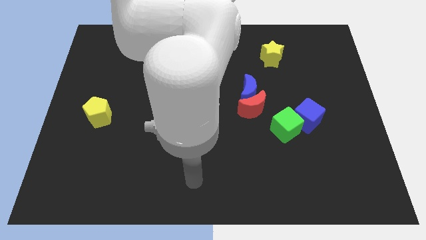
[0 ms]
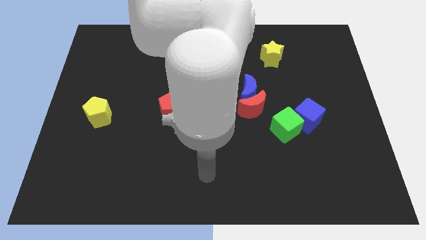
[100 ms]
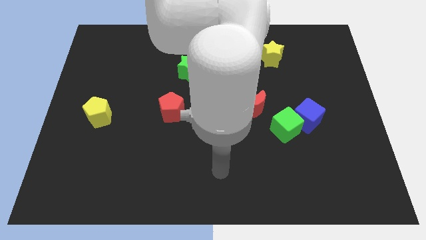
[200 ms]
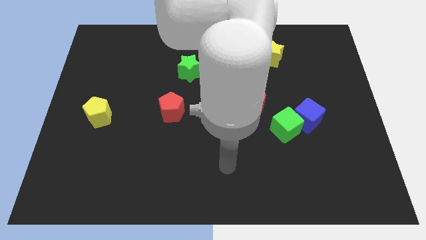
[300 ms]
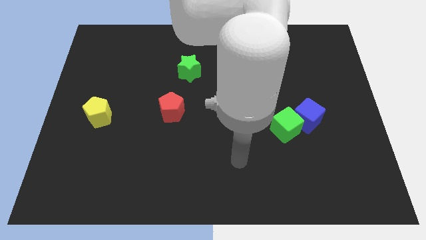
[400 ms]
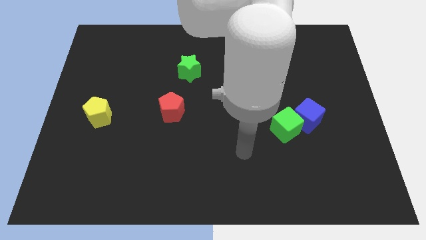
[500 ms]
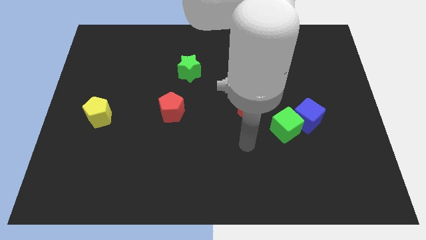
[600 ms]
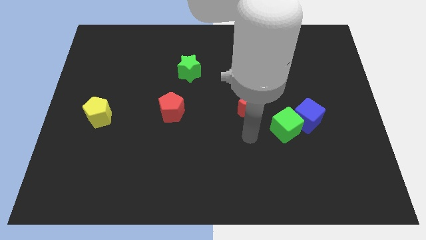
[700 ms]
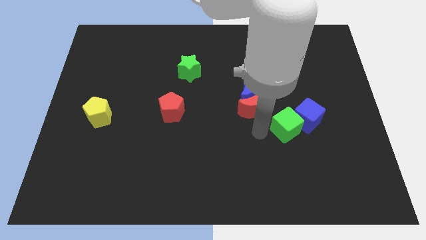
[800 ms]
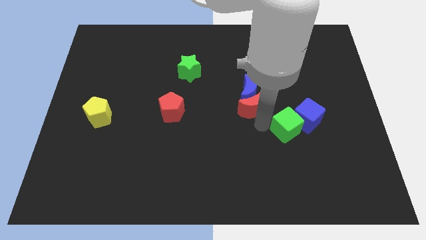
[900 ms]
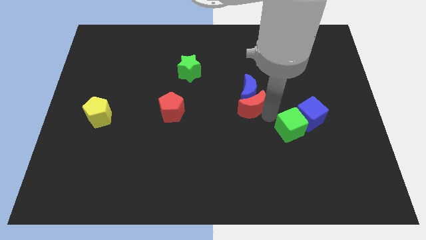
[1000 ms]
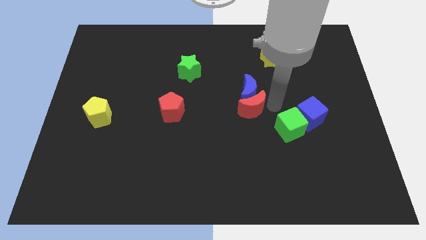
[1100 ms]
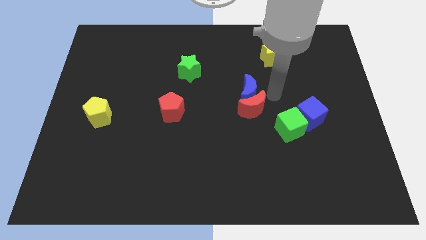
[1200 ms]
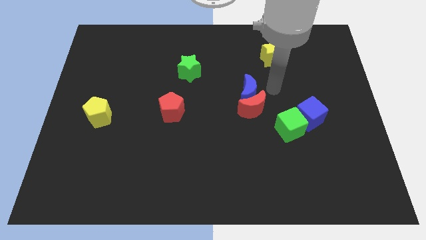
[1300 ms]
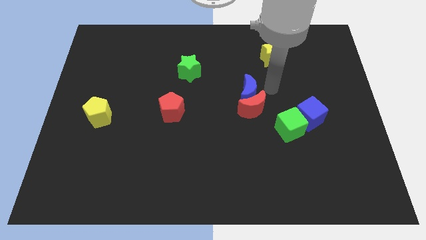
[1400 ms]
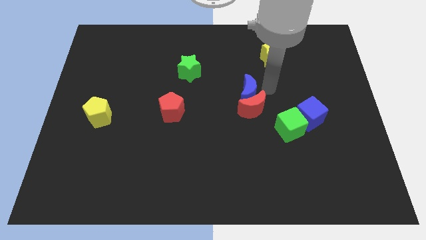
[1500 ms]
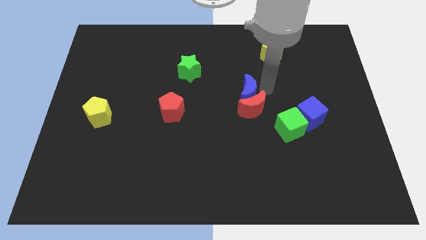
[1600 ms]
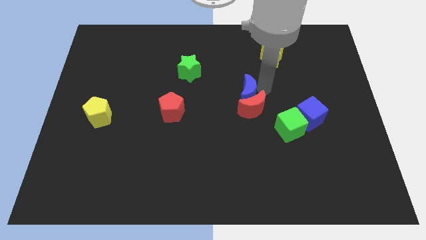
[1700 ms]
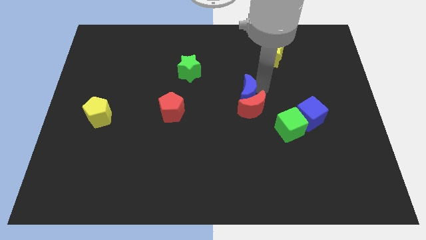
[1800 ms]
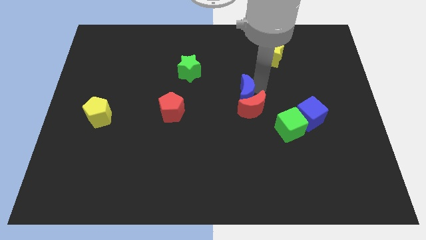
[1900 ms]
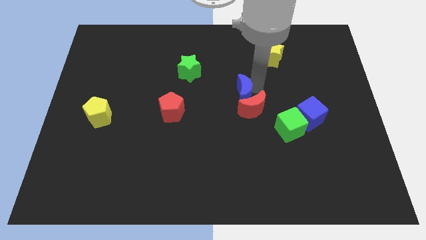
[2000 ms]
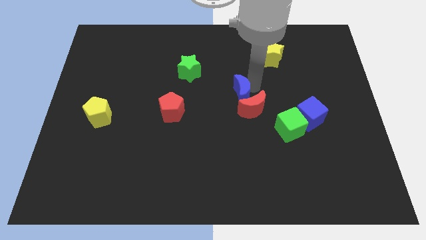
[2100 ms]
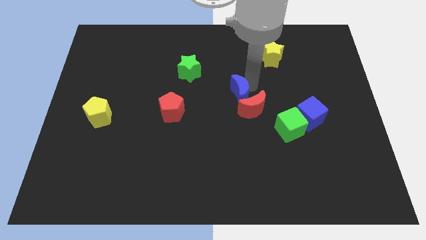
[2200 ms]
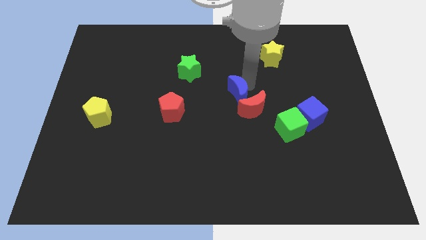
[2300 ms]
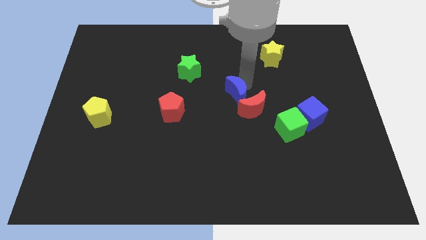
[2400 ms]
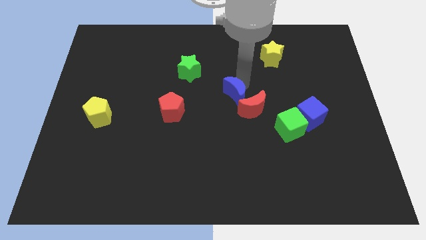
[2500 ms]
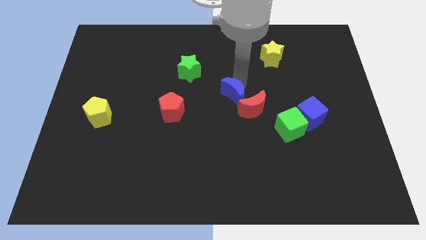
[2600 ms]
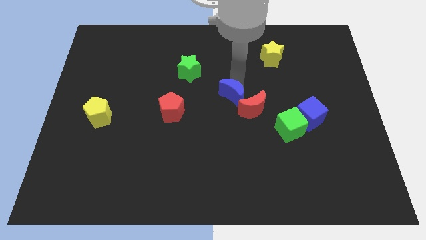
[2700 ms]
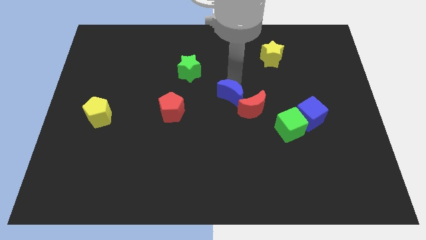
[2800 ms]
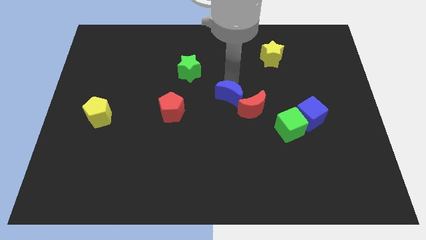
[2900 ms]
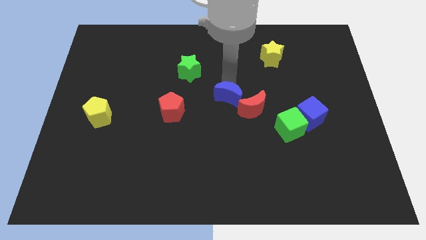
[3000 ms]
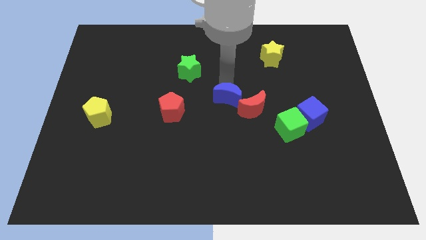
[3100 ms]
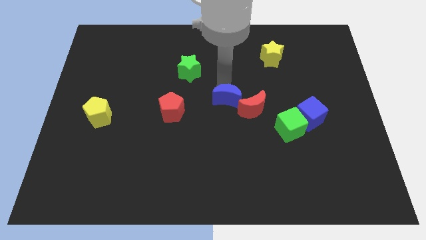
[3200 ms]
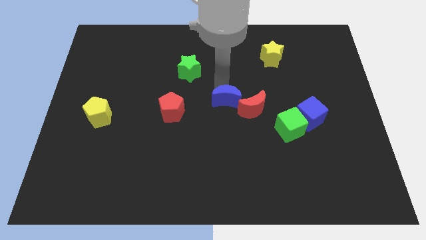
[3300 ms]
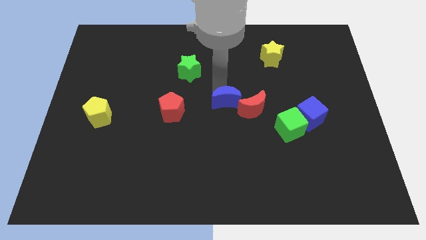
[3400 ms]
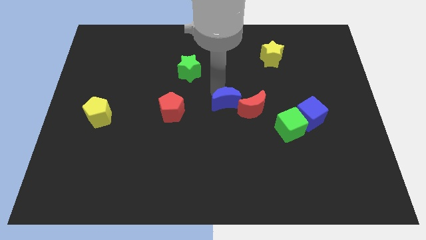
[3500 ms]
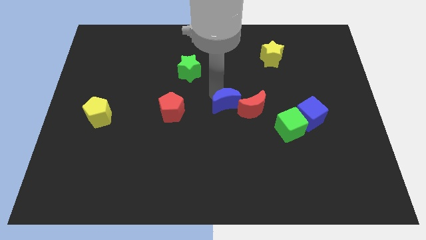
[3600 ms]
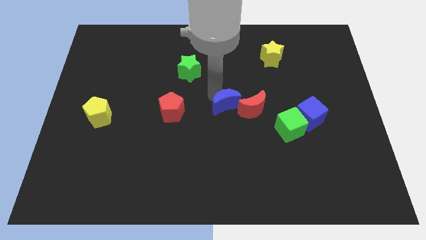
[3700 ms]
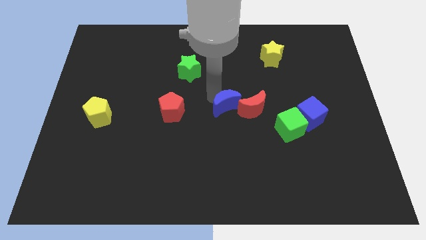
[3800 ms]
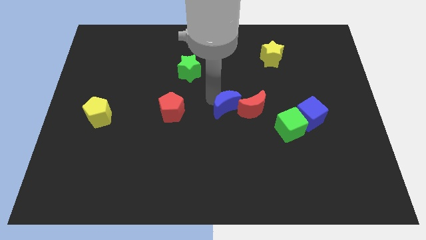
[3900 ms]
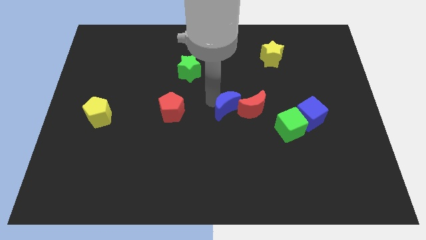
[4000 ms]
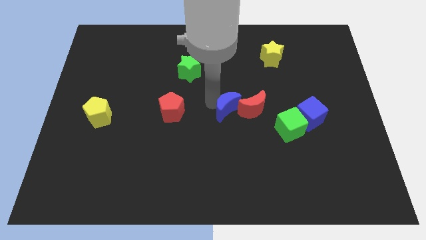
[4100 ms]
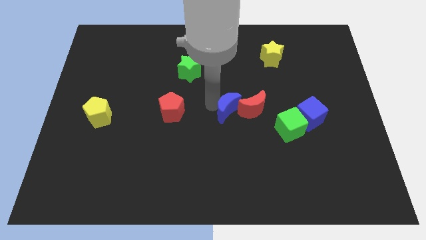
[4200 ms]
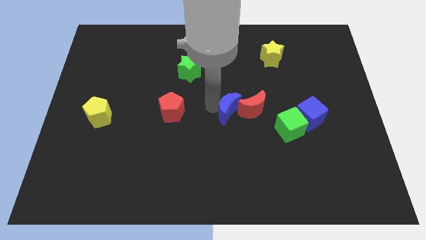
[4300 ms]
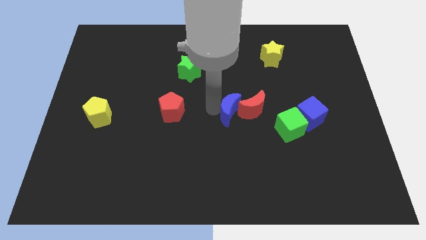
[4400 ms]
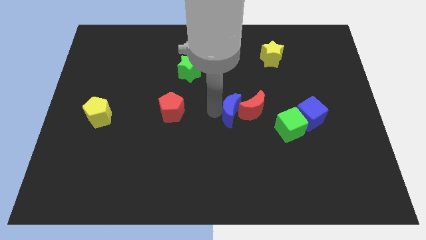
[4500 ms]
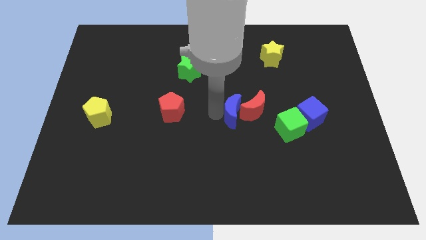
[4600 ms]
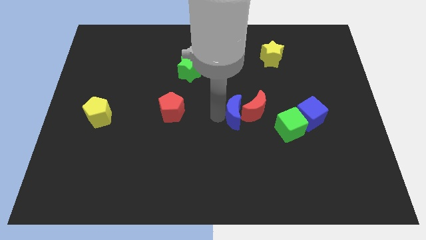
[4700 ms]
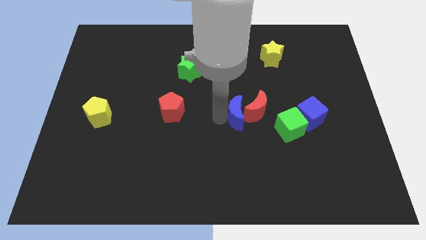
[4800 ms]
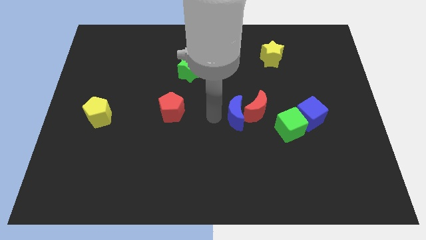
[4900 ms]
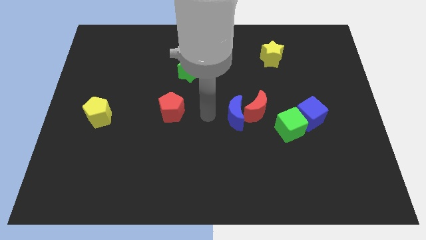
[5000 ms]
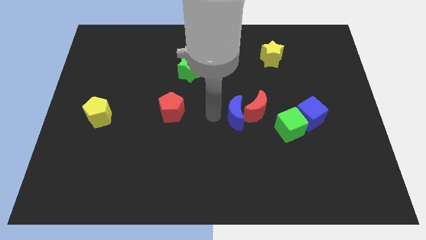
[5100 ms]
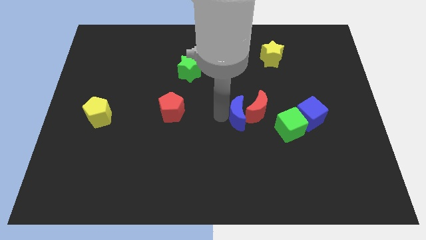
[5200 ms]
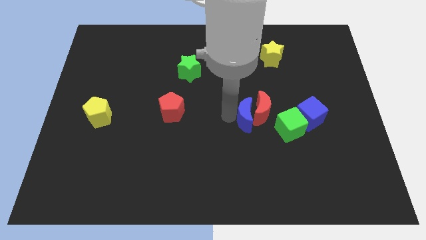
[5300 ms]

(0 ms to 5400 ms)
slide the blue moon just left of the blue cube

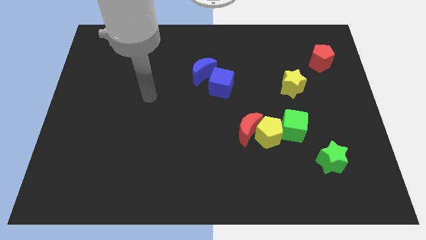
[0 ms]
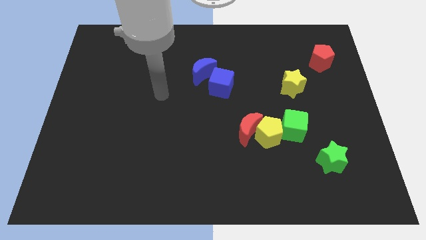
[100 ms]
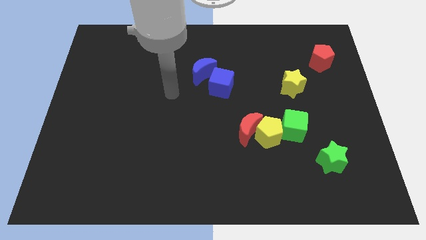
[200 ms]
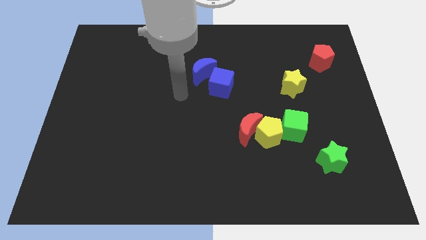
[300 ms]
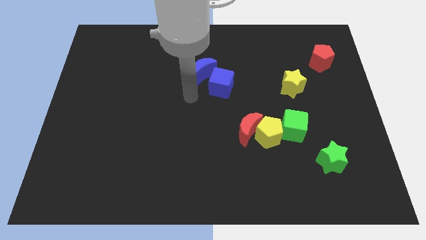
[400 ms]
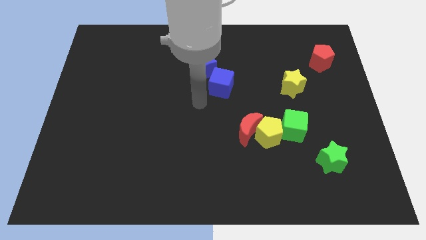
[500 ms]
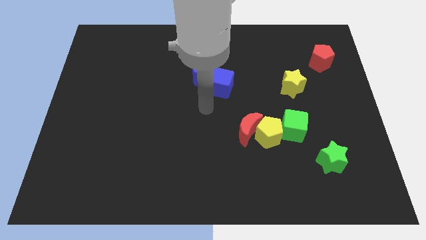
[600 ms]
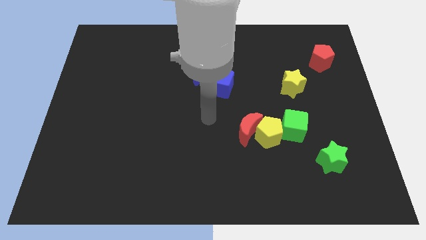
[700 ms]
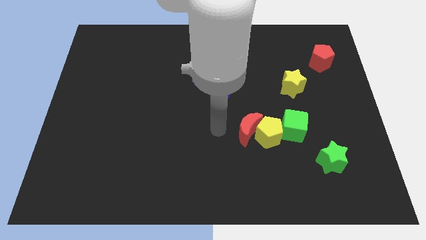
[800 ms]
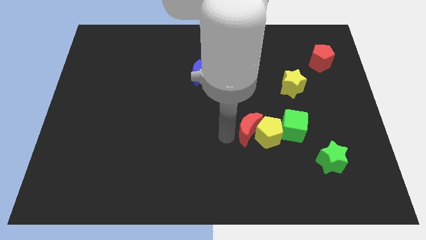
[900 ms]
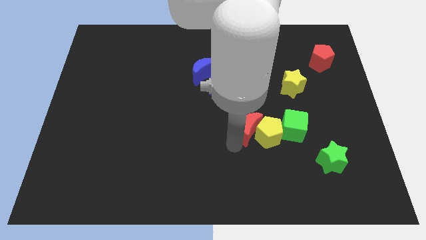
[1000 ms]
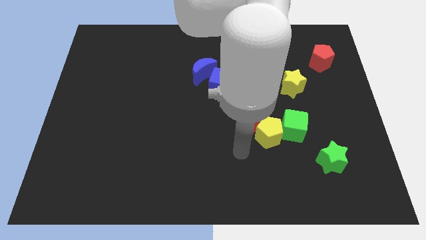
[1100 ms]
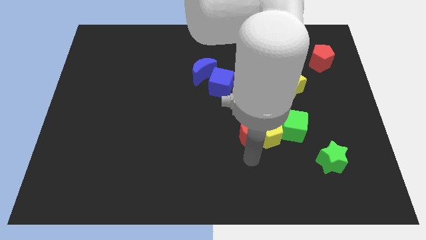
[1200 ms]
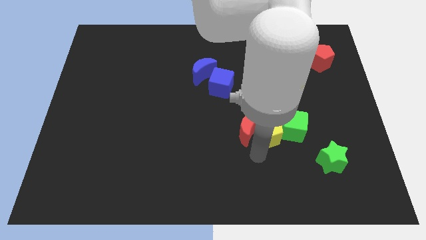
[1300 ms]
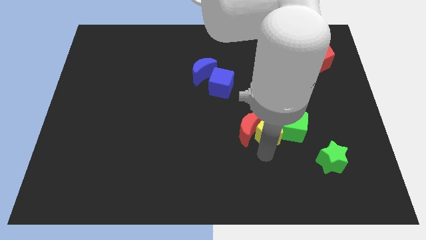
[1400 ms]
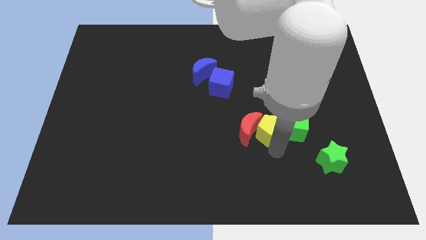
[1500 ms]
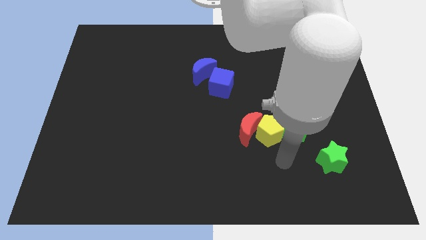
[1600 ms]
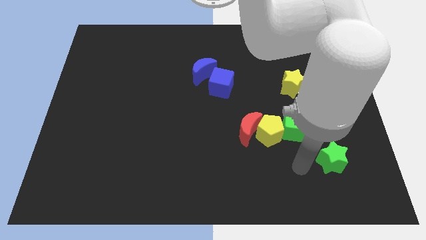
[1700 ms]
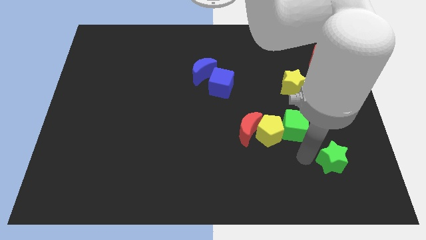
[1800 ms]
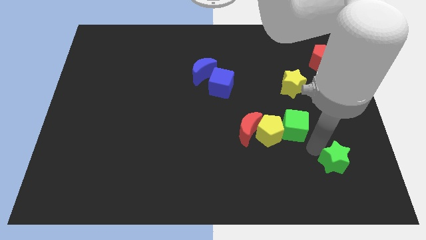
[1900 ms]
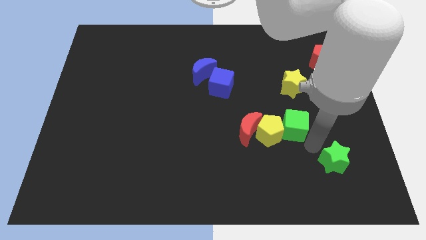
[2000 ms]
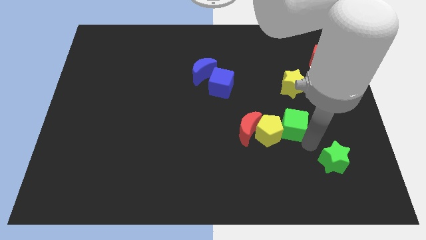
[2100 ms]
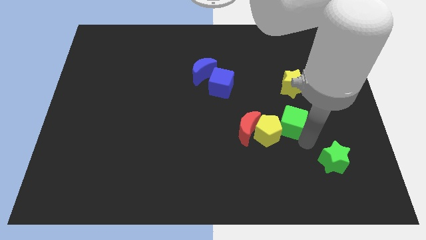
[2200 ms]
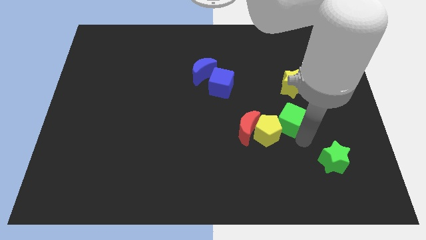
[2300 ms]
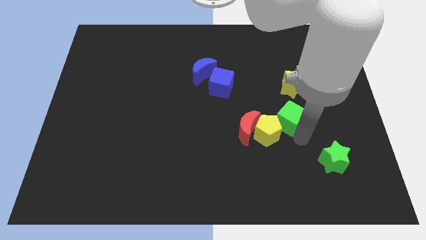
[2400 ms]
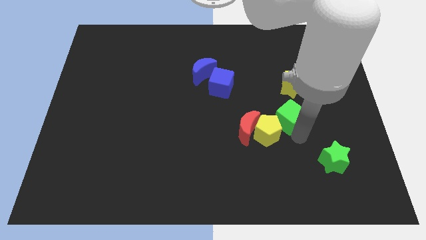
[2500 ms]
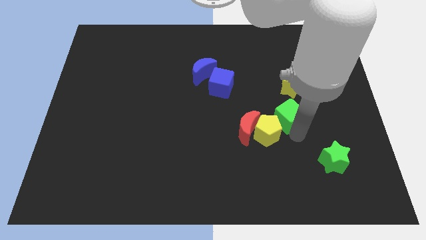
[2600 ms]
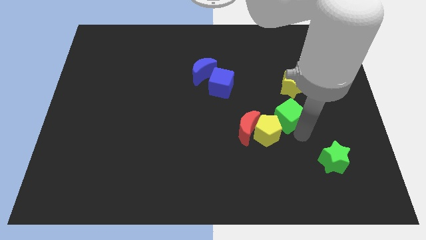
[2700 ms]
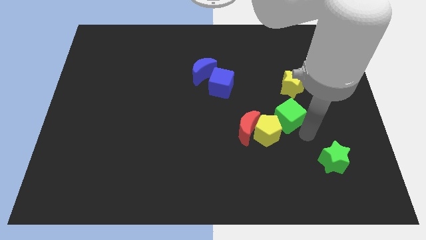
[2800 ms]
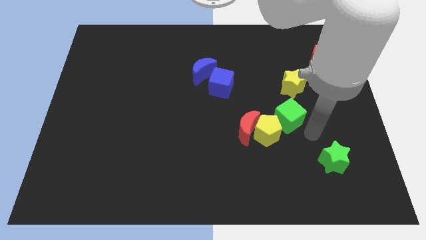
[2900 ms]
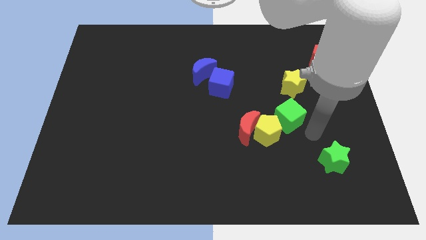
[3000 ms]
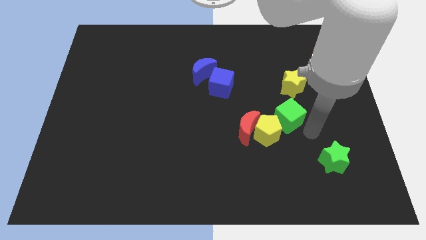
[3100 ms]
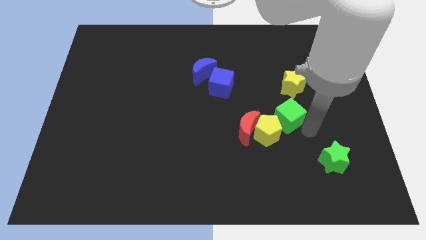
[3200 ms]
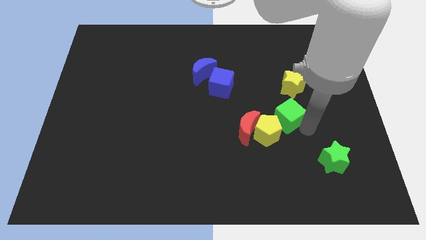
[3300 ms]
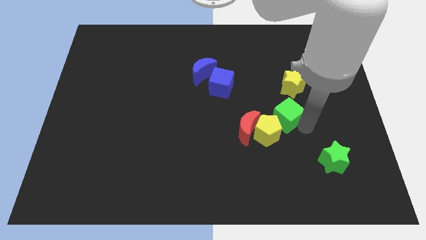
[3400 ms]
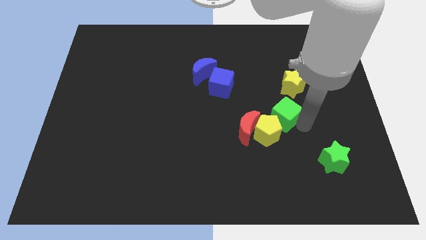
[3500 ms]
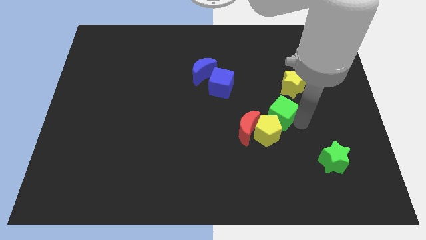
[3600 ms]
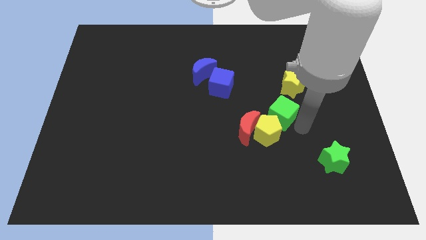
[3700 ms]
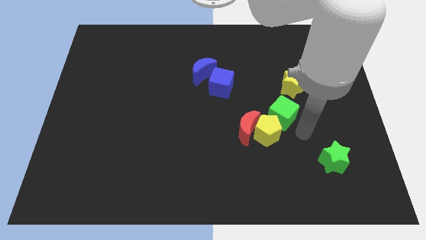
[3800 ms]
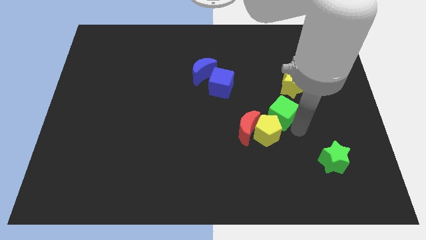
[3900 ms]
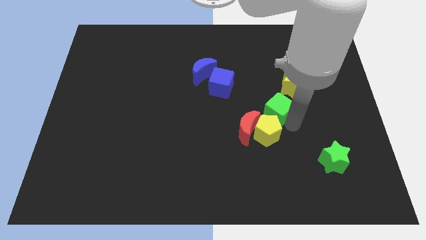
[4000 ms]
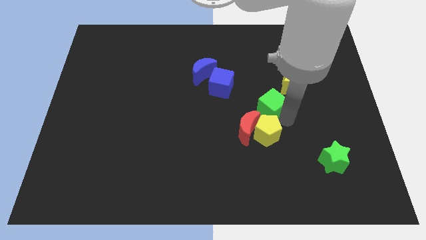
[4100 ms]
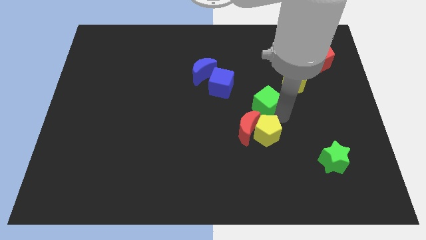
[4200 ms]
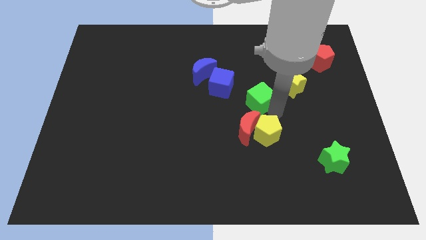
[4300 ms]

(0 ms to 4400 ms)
move the green cube to the left side of the yellow star
